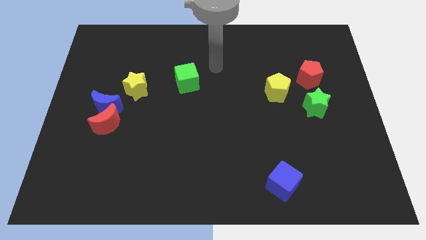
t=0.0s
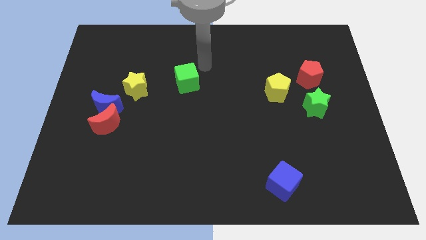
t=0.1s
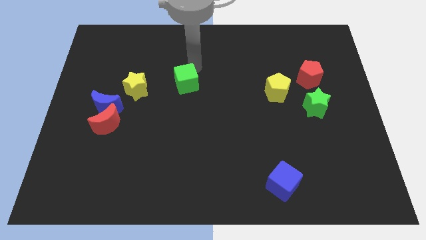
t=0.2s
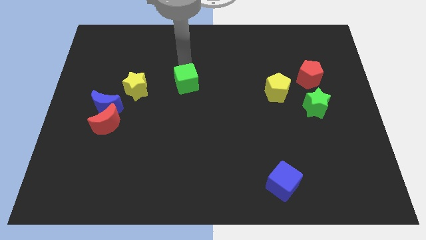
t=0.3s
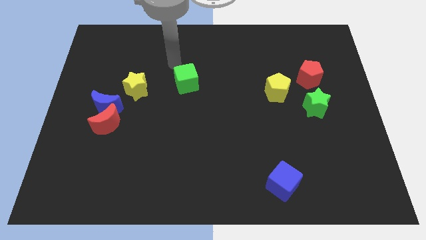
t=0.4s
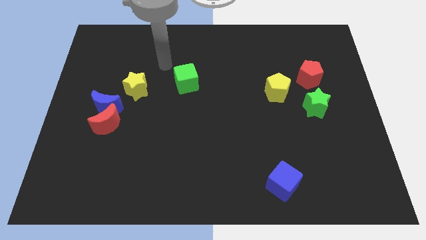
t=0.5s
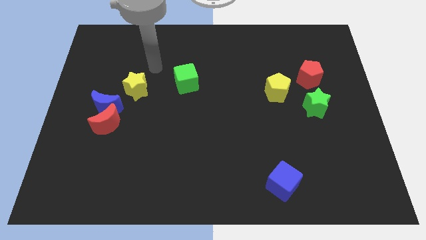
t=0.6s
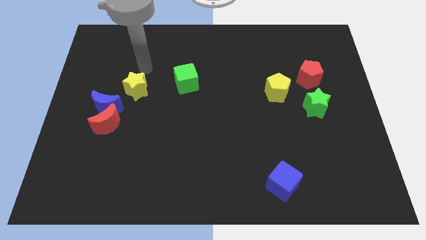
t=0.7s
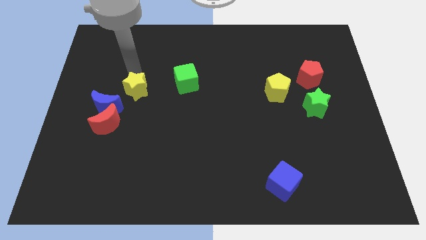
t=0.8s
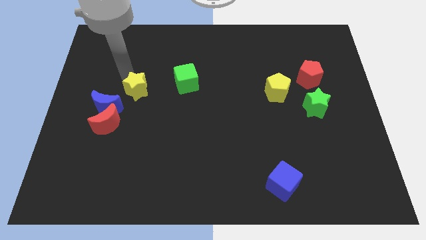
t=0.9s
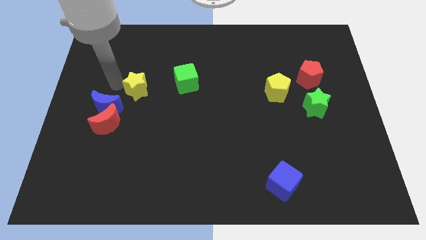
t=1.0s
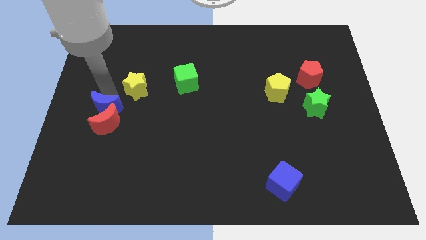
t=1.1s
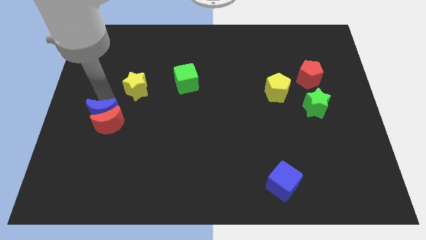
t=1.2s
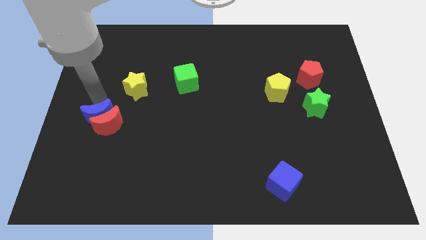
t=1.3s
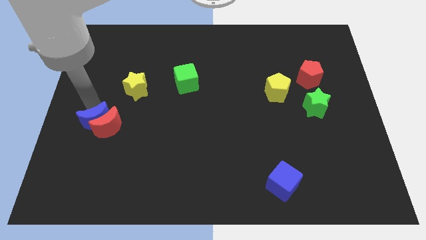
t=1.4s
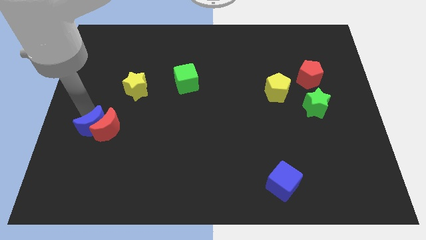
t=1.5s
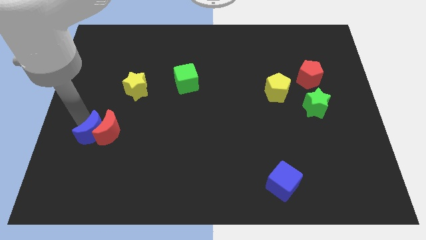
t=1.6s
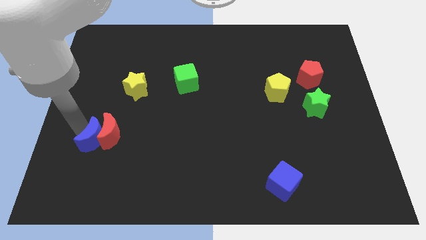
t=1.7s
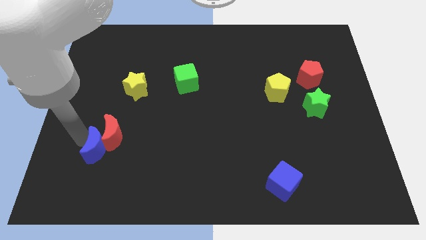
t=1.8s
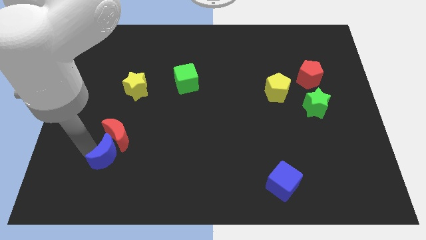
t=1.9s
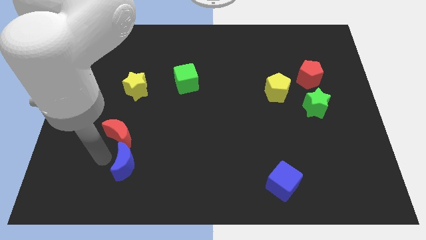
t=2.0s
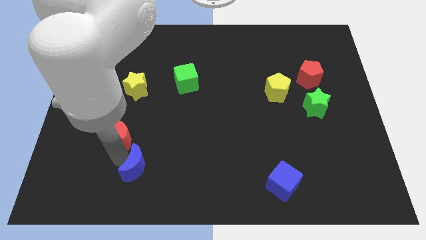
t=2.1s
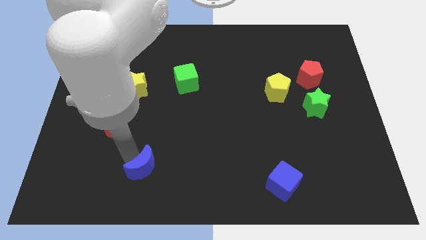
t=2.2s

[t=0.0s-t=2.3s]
pull the red moon apart from the blue moon

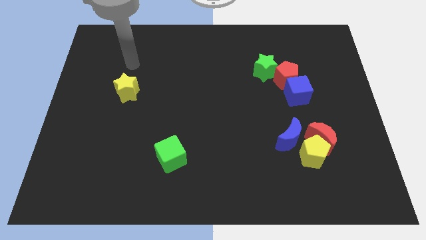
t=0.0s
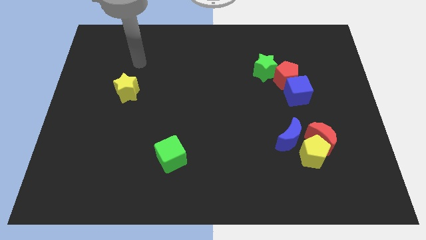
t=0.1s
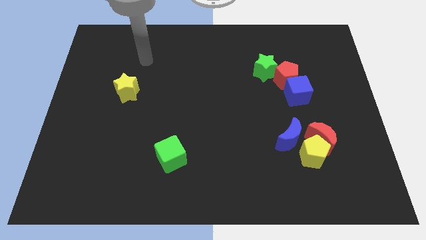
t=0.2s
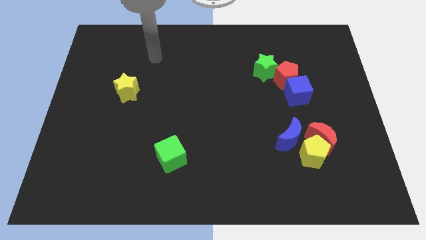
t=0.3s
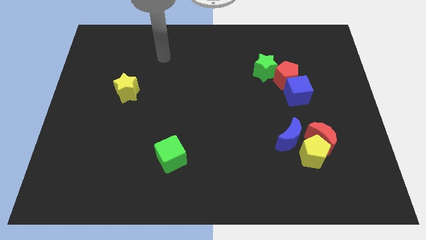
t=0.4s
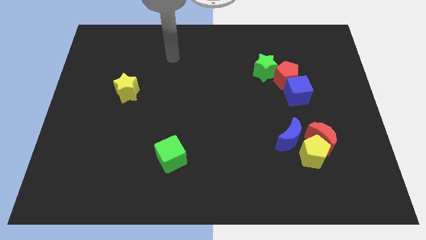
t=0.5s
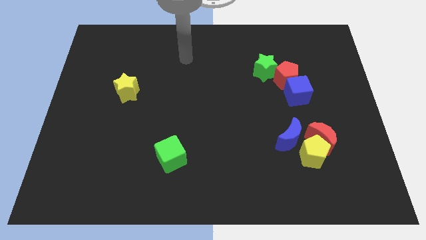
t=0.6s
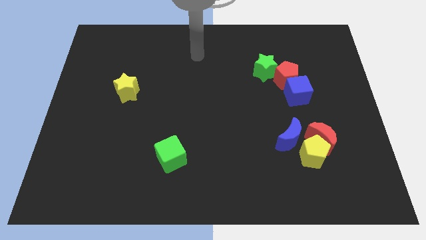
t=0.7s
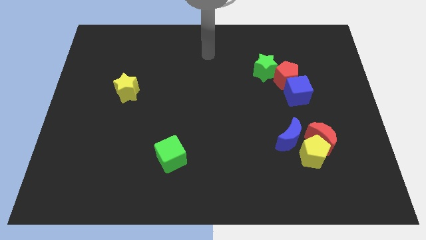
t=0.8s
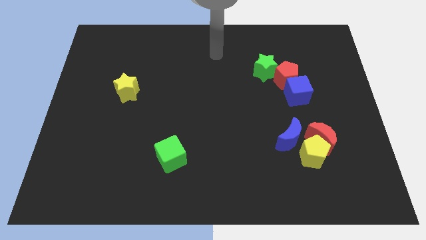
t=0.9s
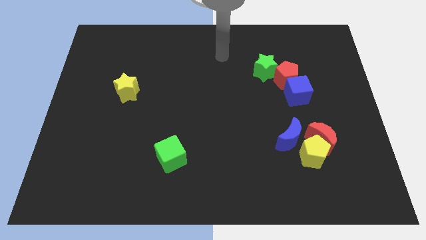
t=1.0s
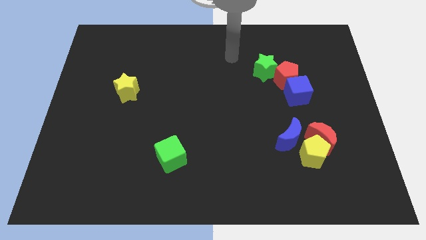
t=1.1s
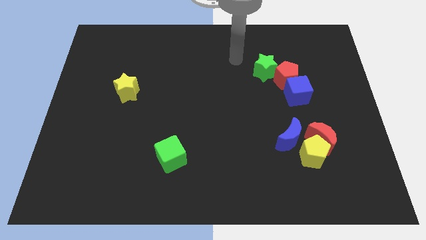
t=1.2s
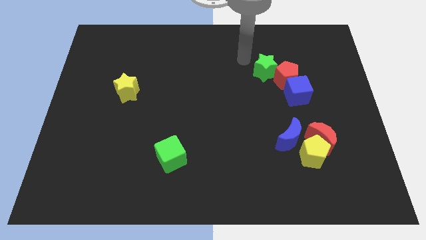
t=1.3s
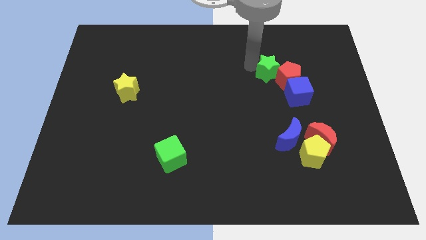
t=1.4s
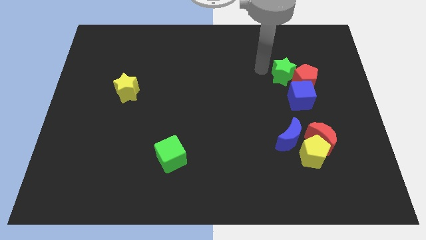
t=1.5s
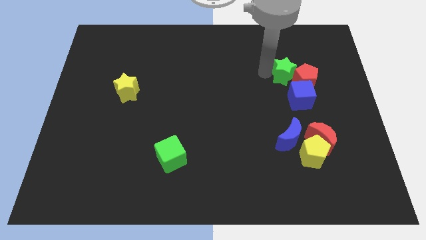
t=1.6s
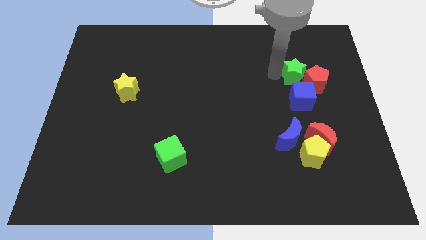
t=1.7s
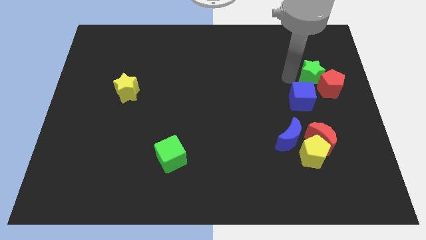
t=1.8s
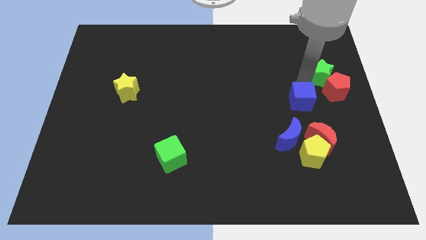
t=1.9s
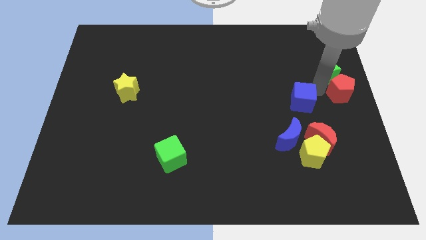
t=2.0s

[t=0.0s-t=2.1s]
separate the blue cube from the red pentagon

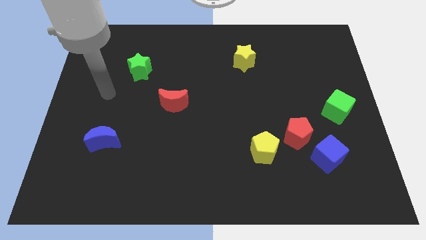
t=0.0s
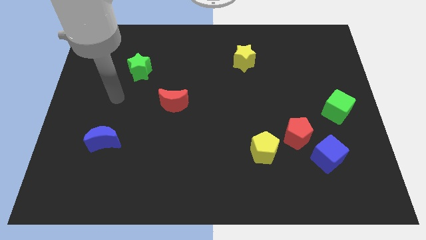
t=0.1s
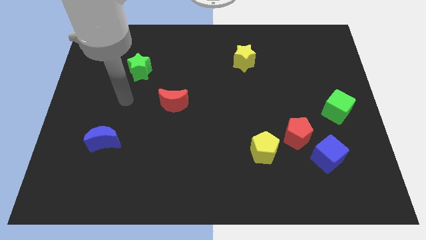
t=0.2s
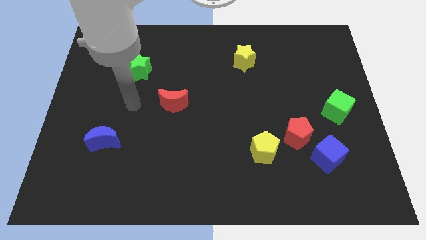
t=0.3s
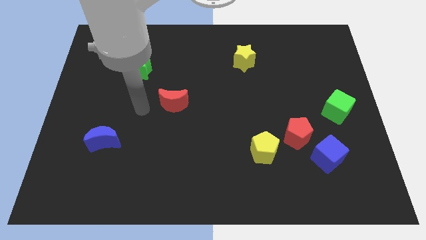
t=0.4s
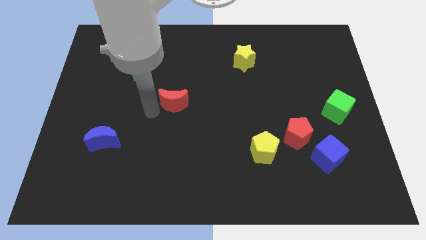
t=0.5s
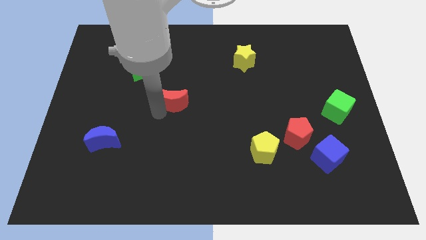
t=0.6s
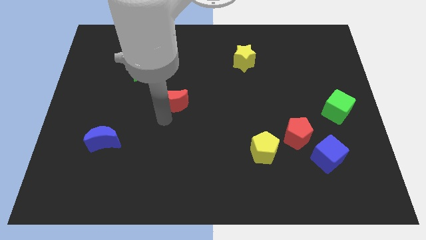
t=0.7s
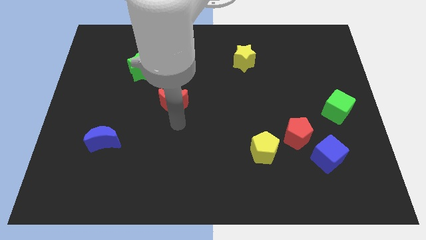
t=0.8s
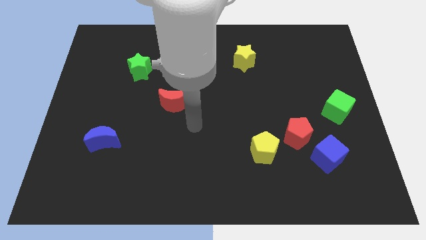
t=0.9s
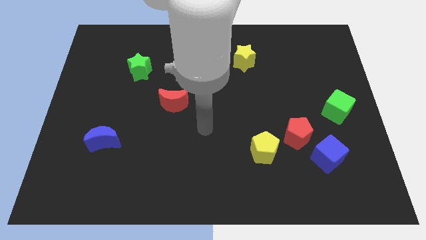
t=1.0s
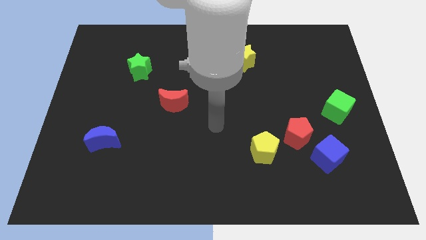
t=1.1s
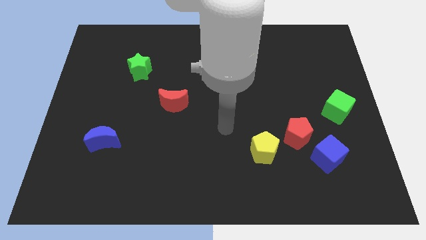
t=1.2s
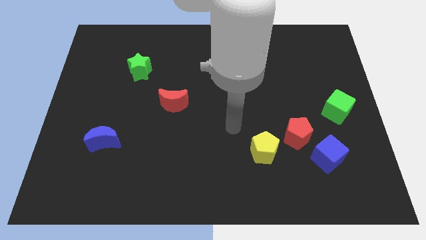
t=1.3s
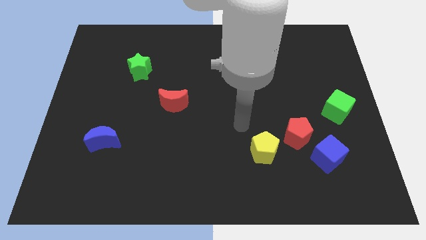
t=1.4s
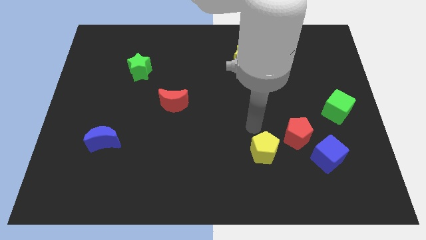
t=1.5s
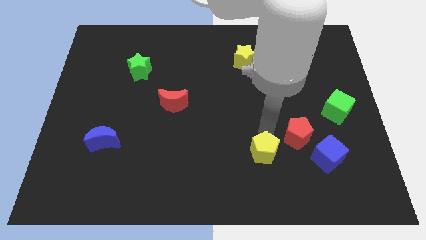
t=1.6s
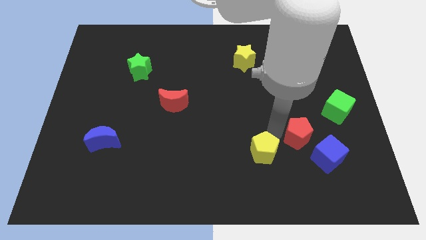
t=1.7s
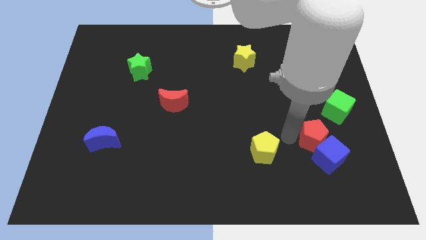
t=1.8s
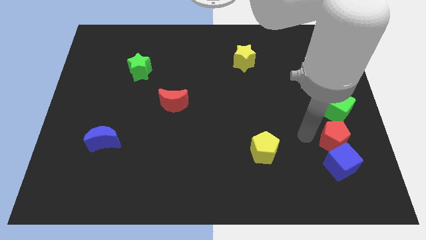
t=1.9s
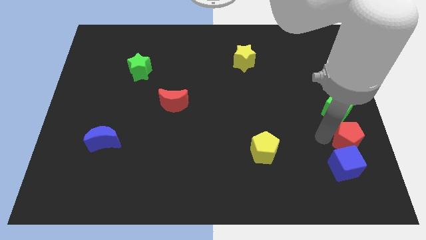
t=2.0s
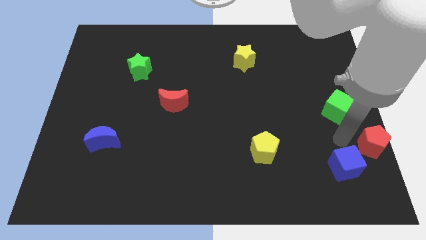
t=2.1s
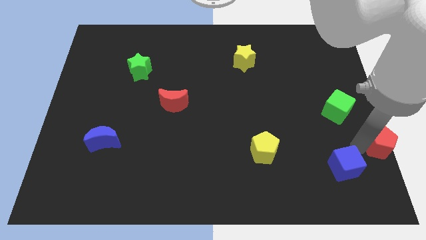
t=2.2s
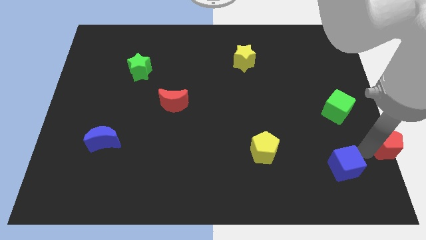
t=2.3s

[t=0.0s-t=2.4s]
move the blue cube away from the red pentagon

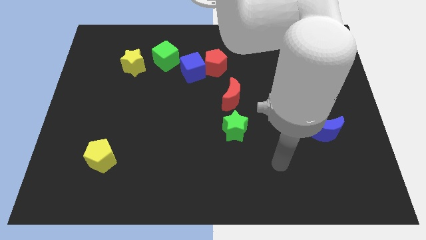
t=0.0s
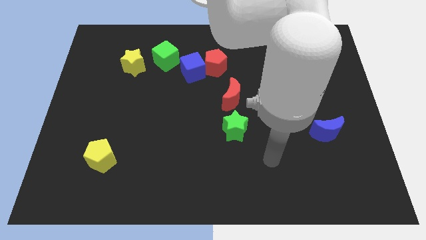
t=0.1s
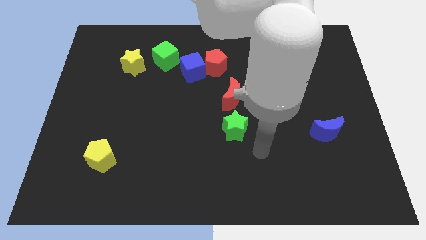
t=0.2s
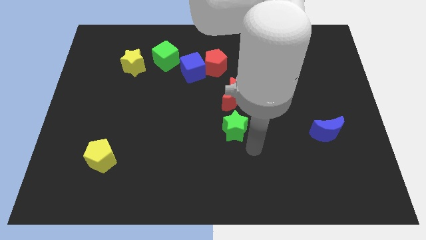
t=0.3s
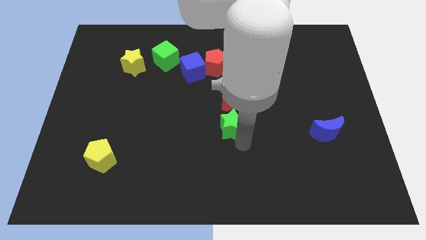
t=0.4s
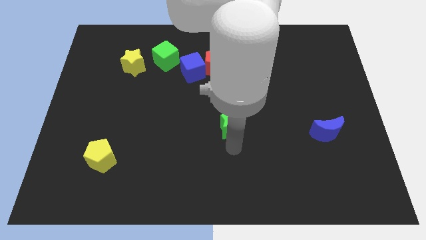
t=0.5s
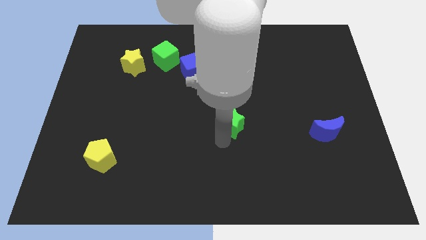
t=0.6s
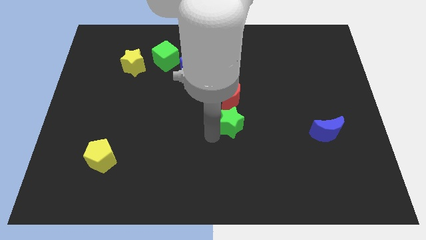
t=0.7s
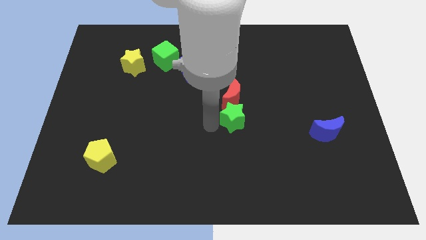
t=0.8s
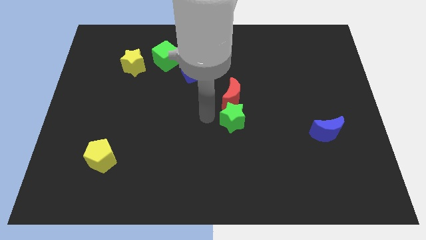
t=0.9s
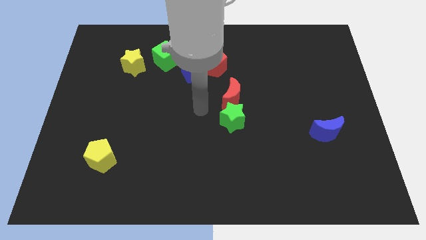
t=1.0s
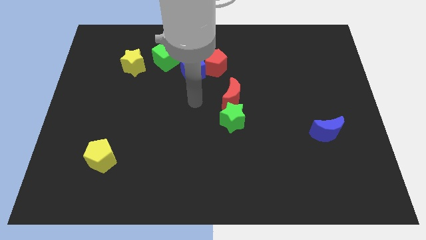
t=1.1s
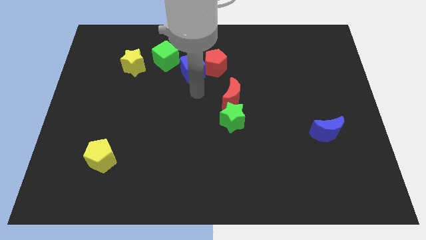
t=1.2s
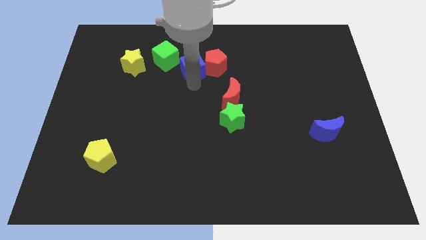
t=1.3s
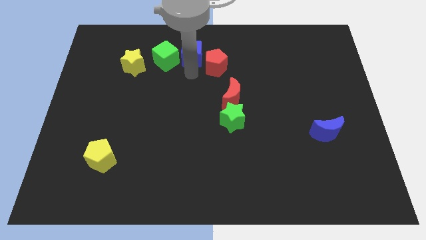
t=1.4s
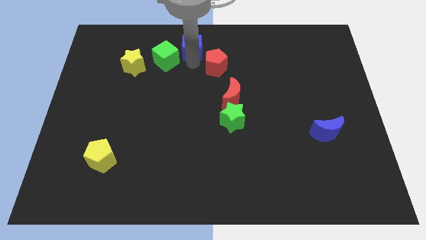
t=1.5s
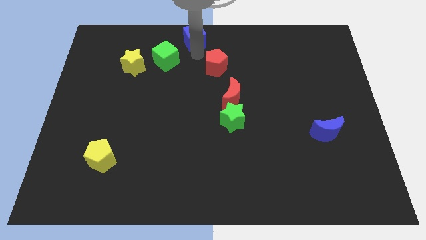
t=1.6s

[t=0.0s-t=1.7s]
separate the red pentagon from the blue cube

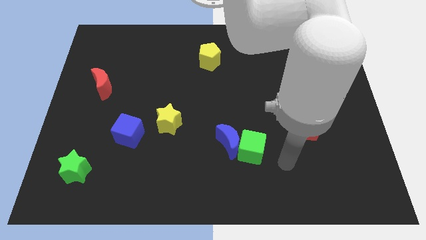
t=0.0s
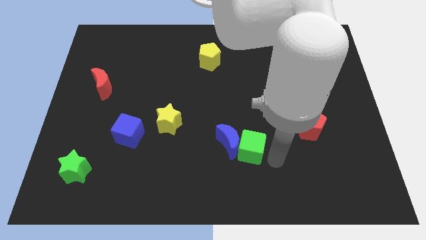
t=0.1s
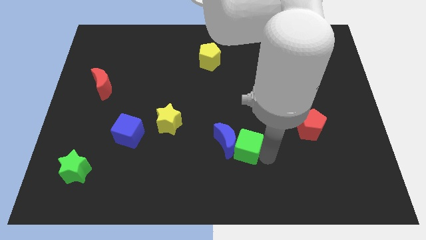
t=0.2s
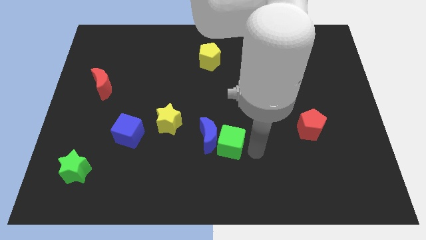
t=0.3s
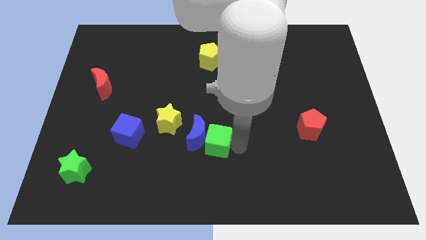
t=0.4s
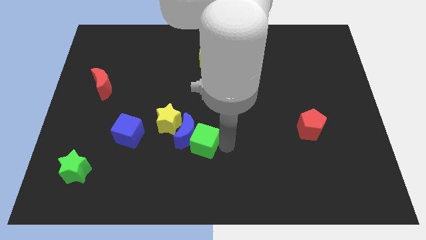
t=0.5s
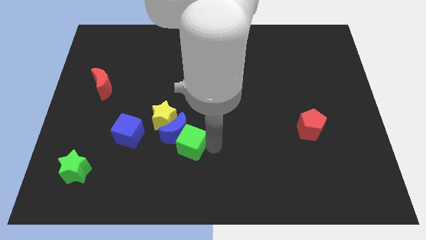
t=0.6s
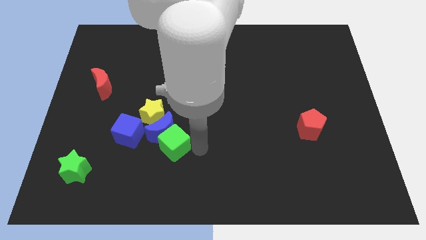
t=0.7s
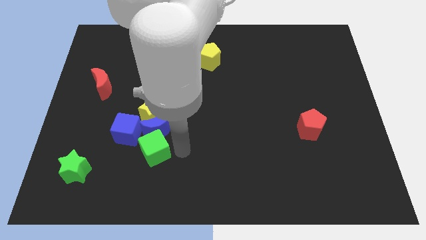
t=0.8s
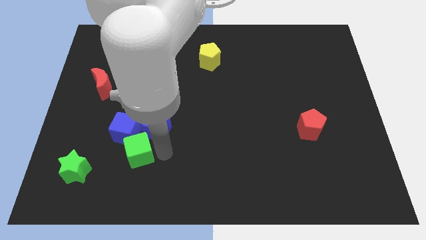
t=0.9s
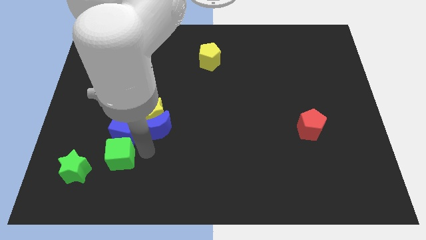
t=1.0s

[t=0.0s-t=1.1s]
move the blue moon away from the green cube
